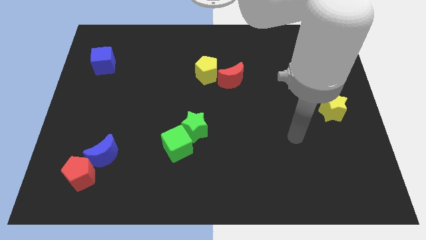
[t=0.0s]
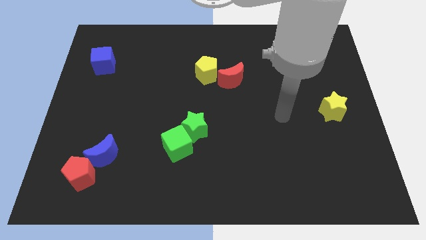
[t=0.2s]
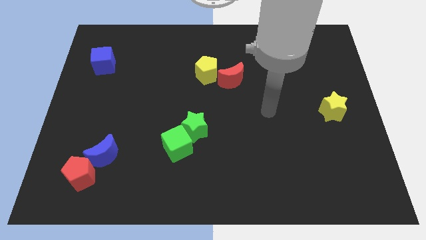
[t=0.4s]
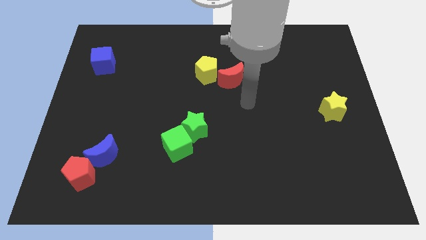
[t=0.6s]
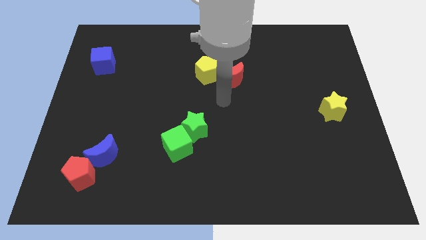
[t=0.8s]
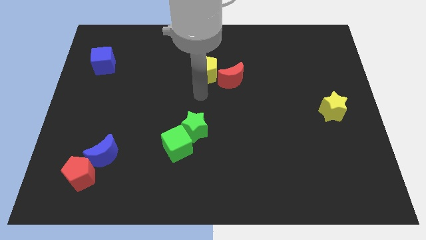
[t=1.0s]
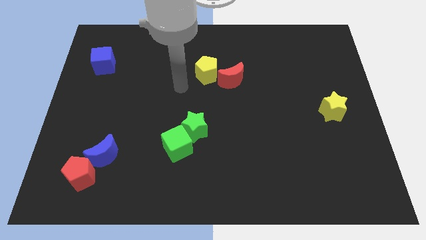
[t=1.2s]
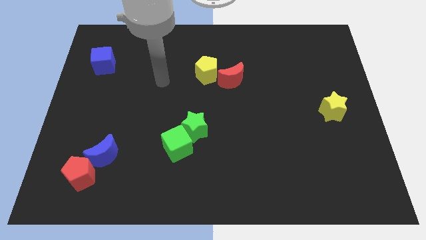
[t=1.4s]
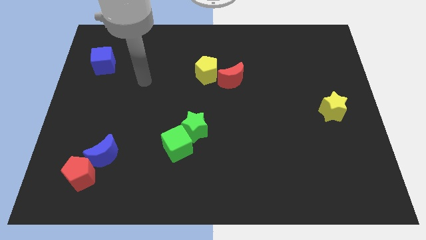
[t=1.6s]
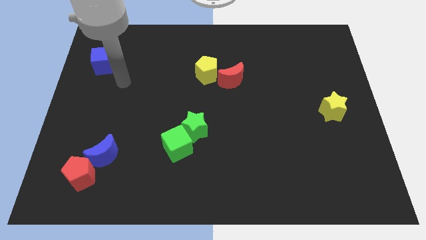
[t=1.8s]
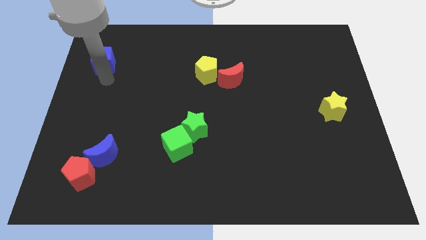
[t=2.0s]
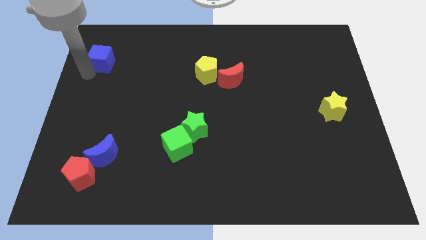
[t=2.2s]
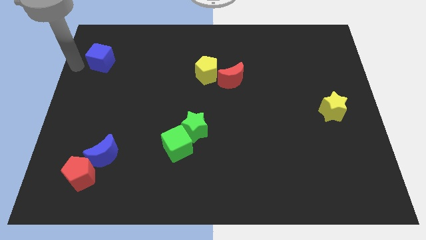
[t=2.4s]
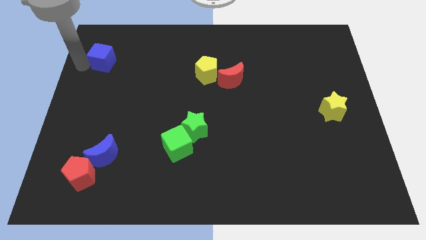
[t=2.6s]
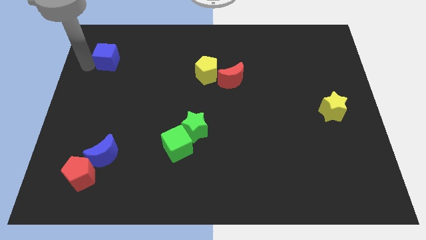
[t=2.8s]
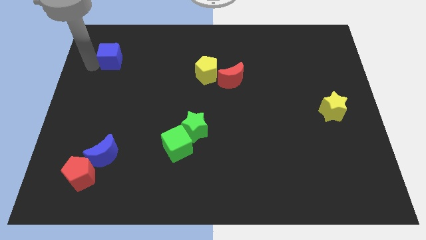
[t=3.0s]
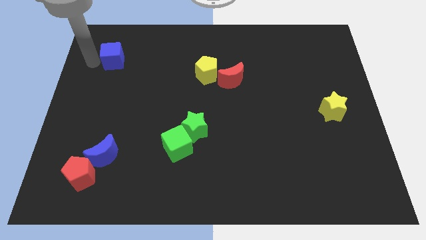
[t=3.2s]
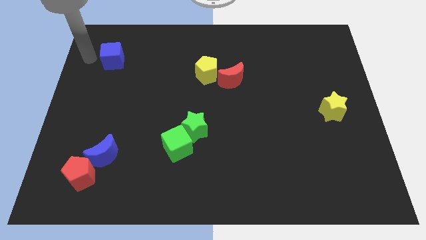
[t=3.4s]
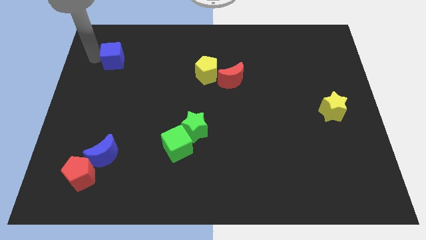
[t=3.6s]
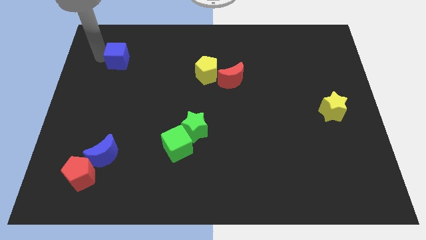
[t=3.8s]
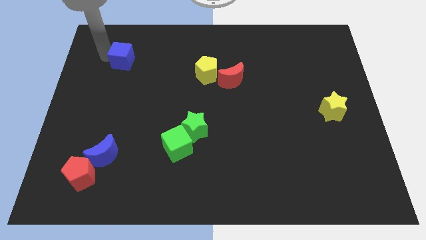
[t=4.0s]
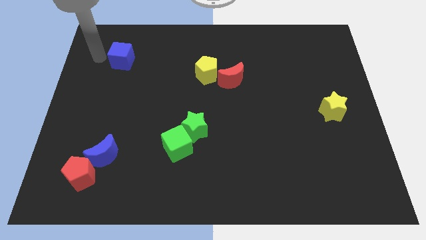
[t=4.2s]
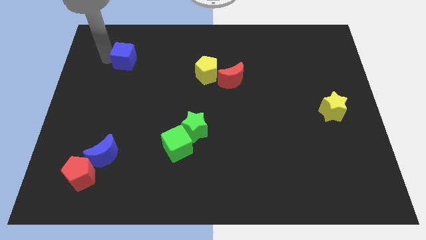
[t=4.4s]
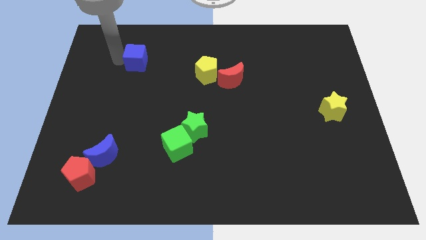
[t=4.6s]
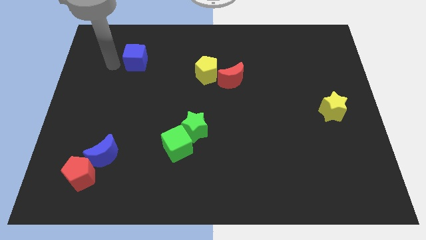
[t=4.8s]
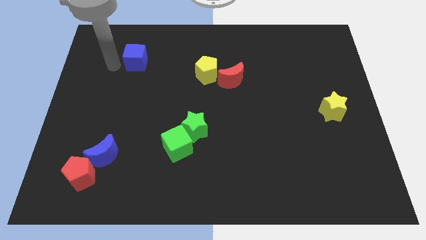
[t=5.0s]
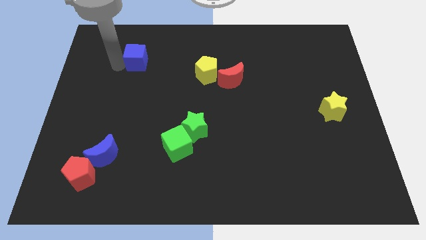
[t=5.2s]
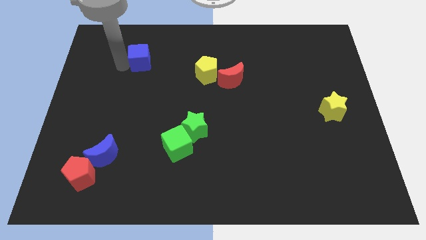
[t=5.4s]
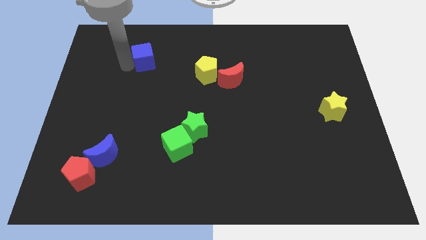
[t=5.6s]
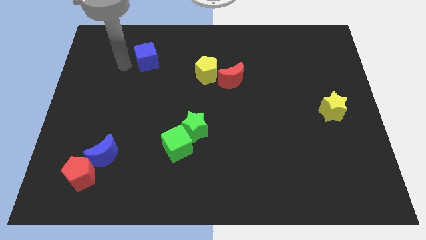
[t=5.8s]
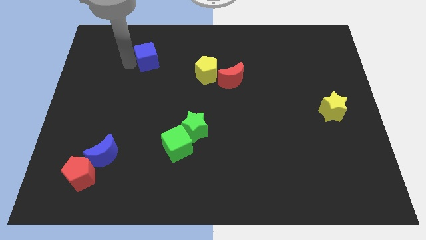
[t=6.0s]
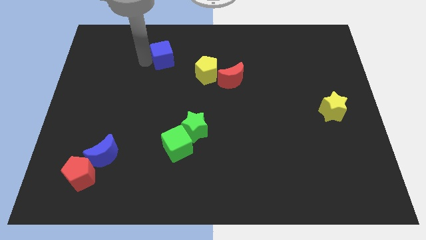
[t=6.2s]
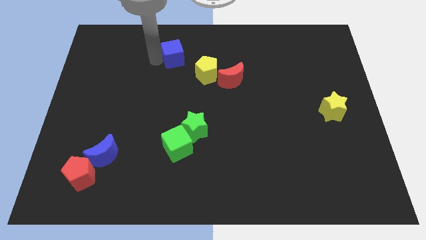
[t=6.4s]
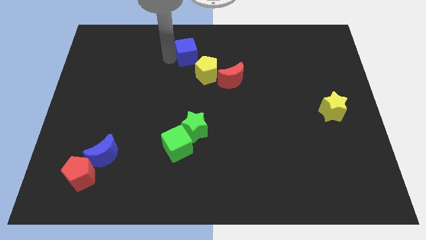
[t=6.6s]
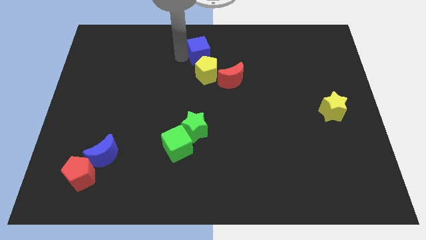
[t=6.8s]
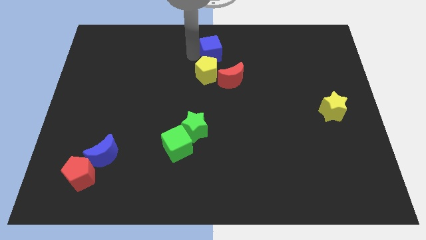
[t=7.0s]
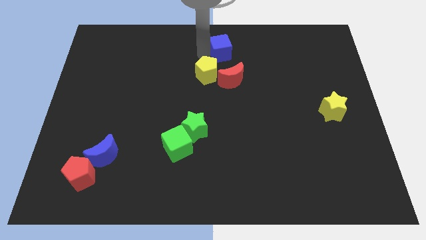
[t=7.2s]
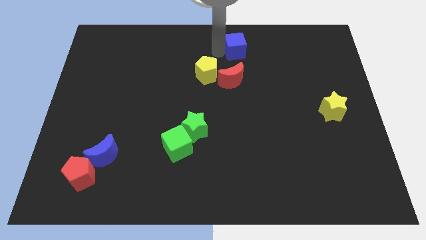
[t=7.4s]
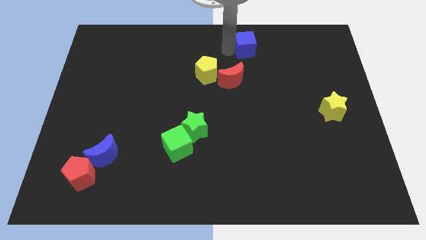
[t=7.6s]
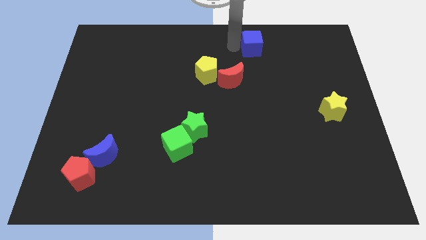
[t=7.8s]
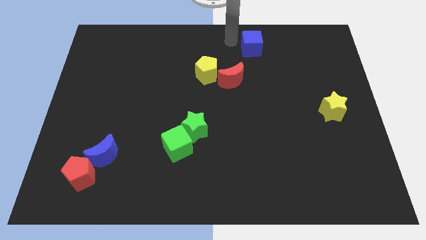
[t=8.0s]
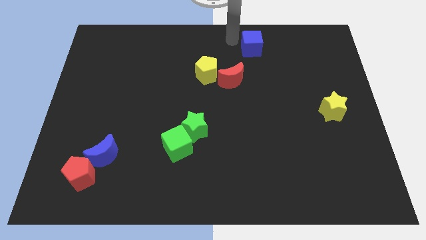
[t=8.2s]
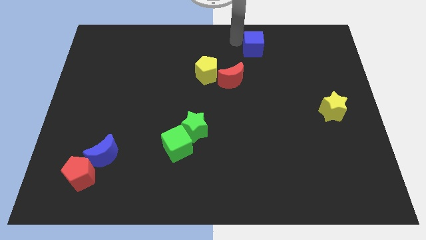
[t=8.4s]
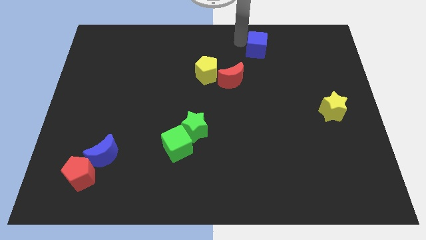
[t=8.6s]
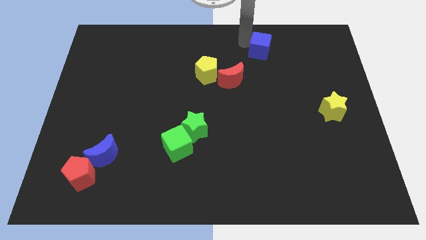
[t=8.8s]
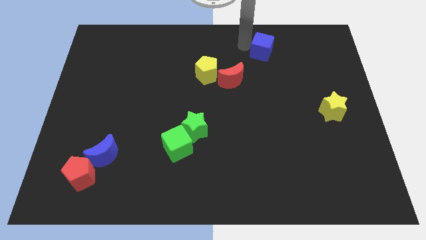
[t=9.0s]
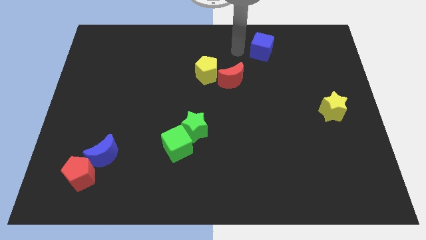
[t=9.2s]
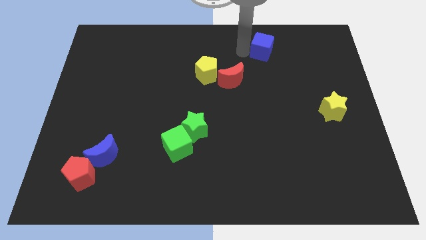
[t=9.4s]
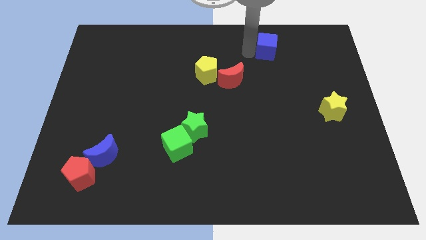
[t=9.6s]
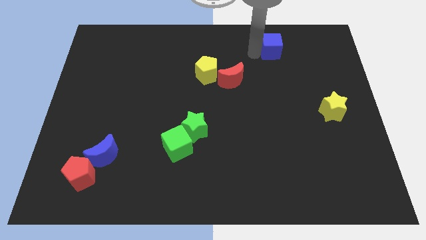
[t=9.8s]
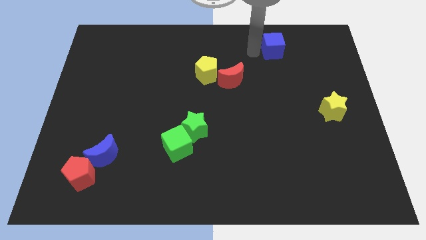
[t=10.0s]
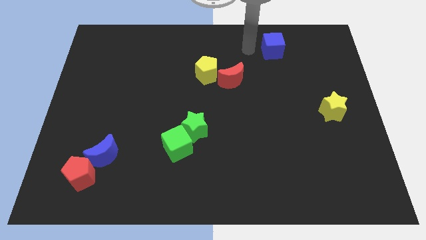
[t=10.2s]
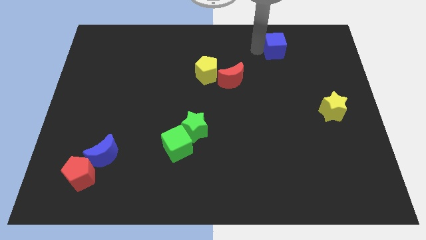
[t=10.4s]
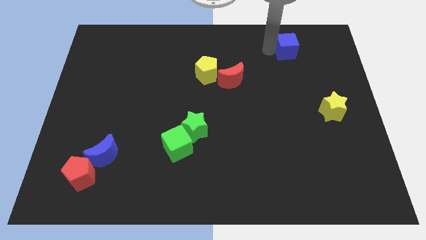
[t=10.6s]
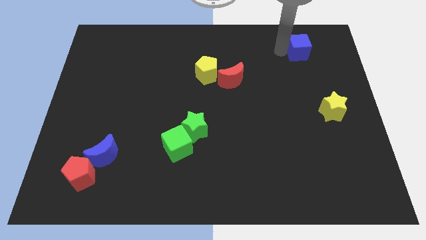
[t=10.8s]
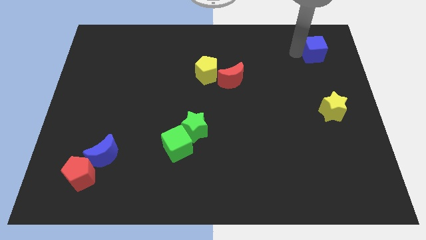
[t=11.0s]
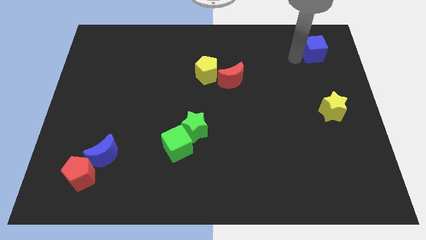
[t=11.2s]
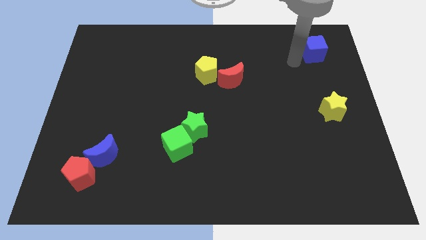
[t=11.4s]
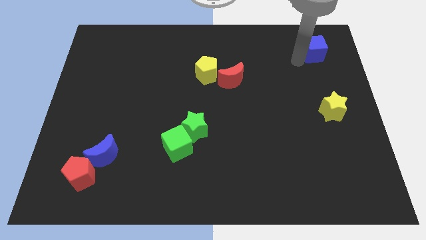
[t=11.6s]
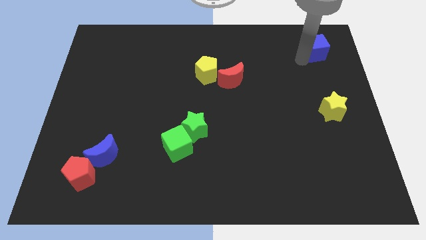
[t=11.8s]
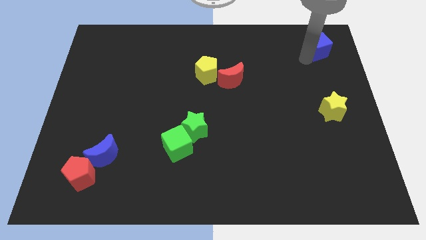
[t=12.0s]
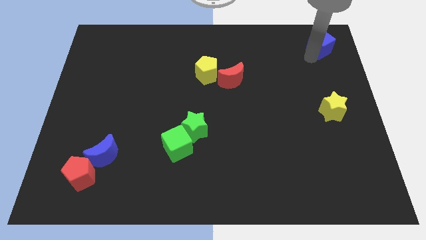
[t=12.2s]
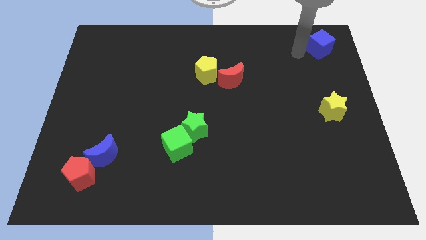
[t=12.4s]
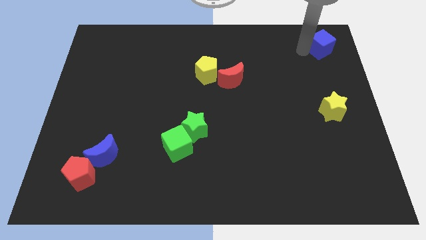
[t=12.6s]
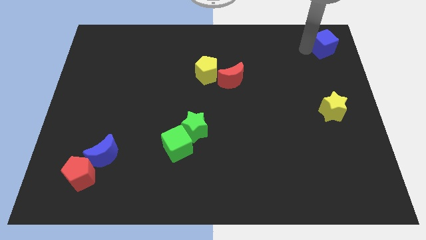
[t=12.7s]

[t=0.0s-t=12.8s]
push the blue cube to the top right corner

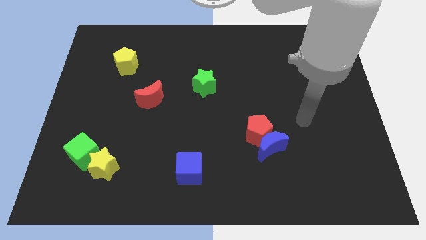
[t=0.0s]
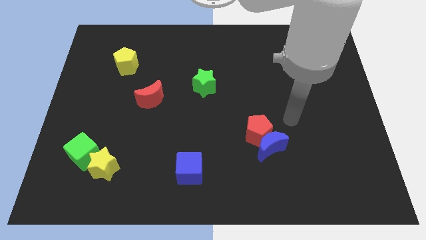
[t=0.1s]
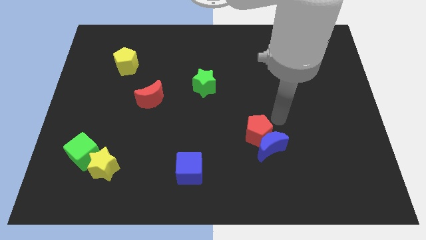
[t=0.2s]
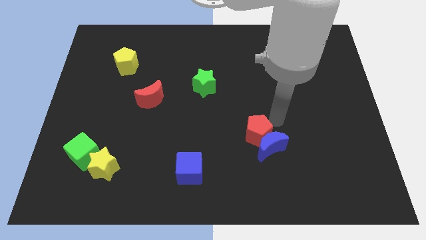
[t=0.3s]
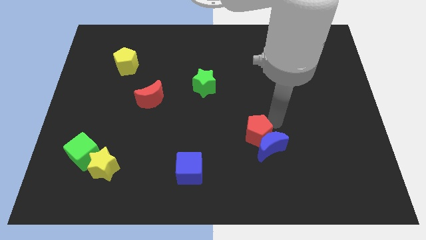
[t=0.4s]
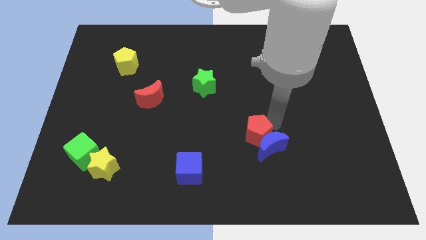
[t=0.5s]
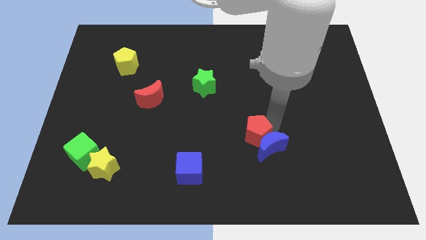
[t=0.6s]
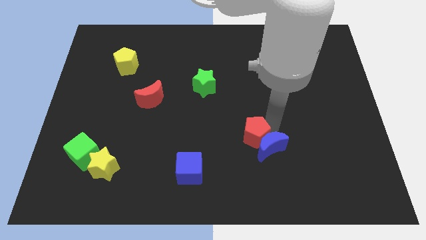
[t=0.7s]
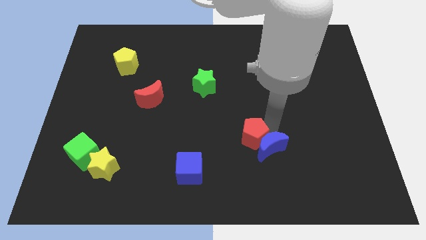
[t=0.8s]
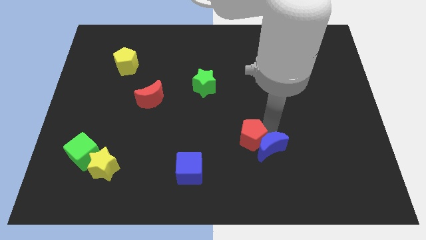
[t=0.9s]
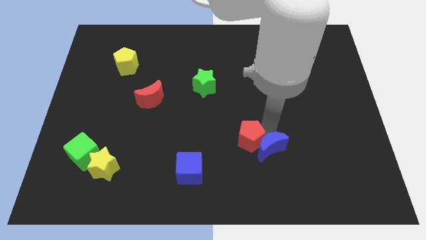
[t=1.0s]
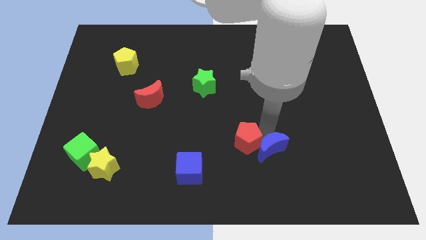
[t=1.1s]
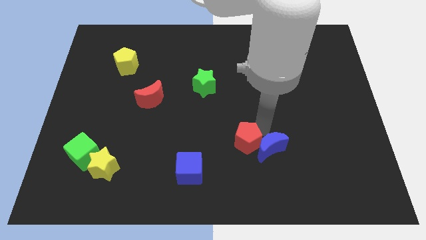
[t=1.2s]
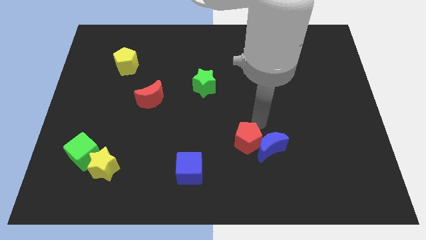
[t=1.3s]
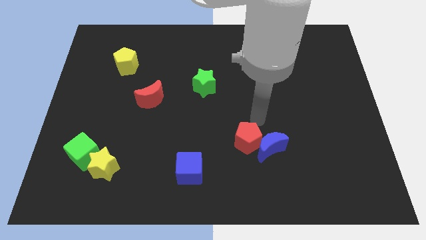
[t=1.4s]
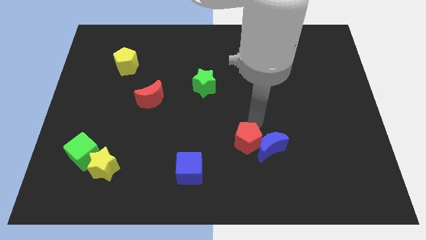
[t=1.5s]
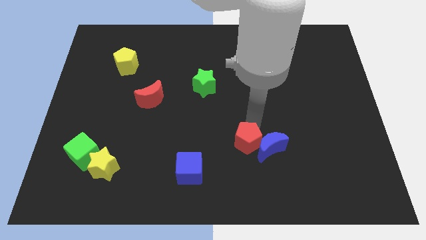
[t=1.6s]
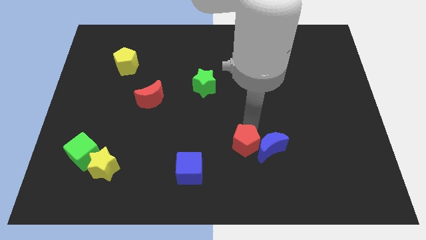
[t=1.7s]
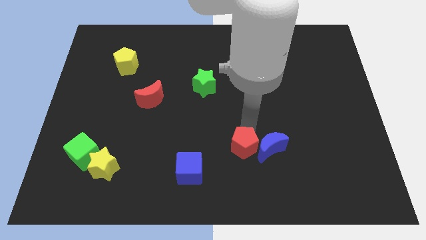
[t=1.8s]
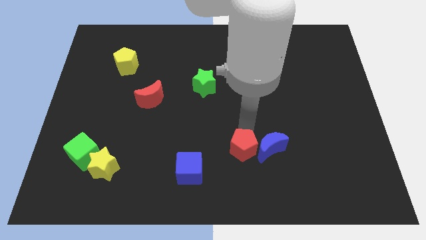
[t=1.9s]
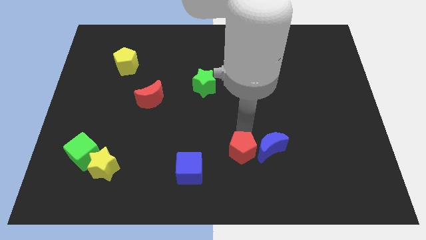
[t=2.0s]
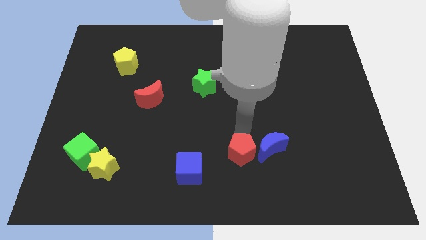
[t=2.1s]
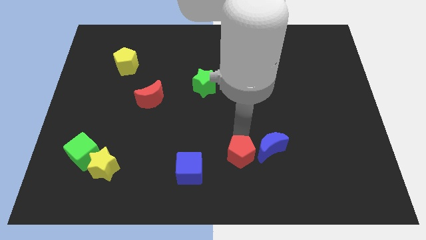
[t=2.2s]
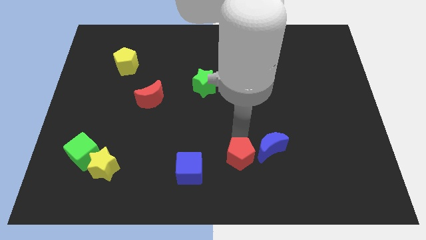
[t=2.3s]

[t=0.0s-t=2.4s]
push the red pentagon to the bottom
